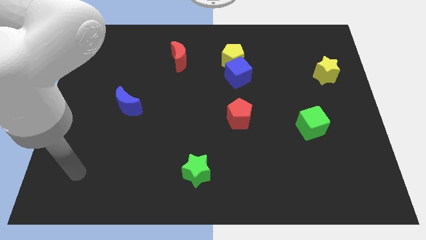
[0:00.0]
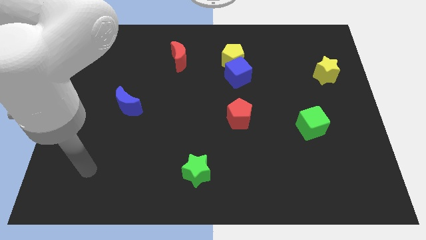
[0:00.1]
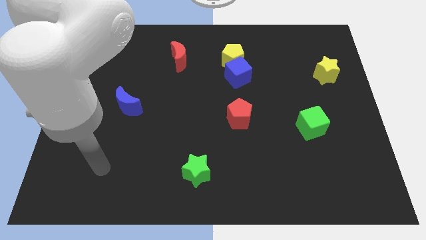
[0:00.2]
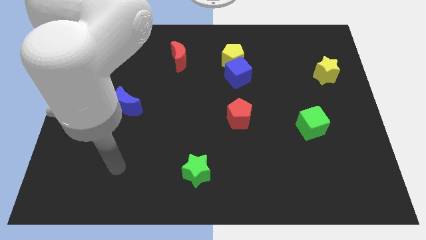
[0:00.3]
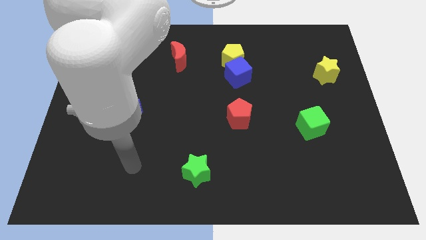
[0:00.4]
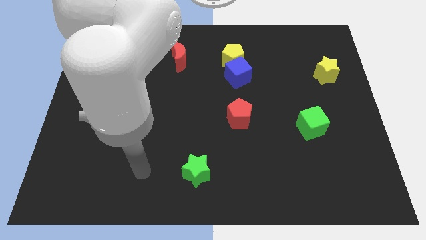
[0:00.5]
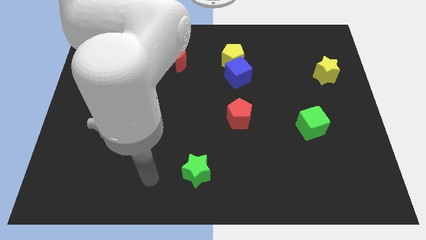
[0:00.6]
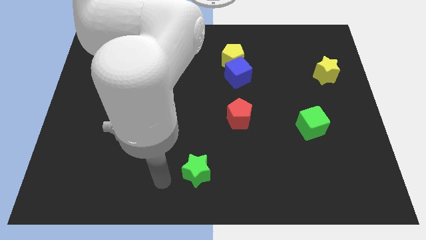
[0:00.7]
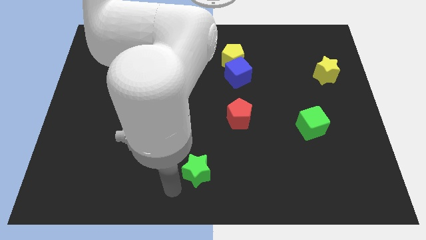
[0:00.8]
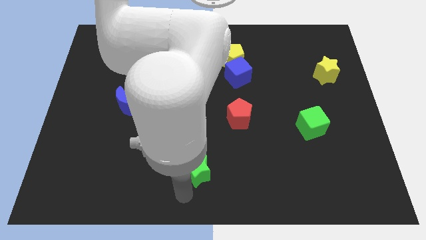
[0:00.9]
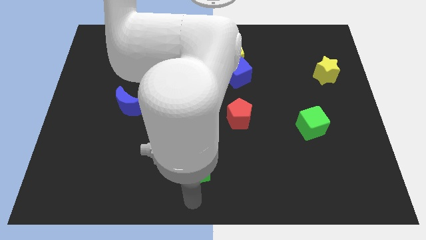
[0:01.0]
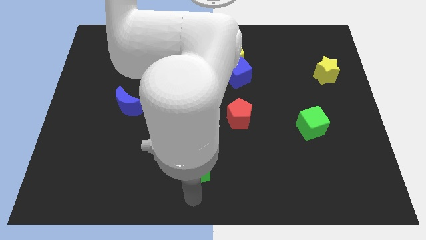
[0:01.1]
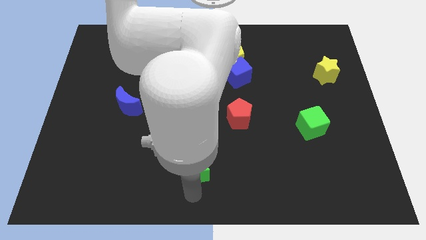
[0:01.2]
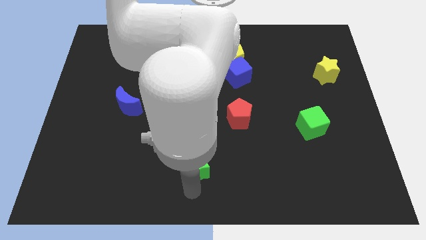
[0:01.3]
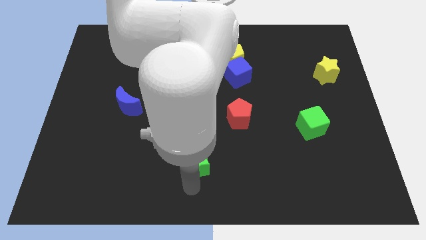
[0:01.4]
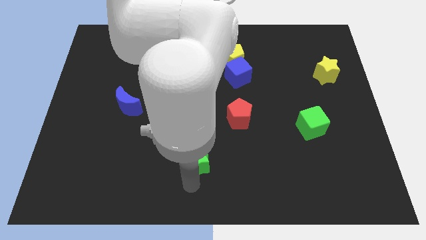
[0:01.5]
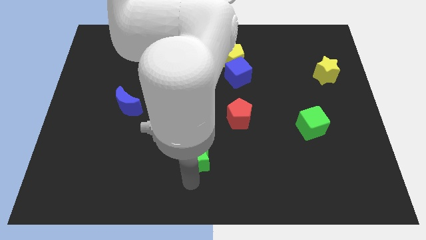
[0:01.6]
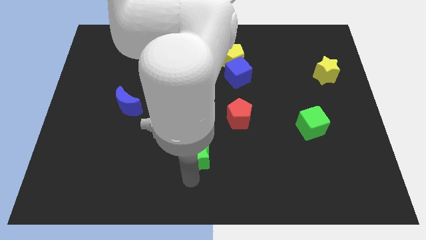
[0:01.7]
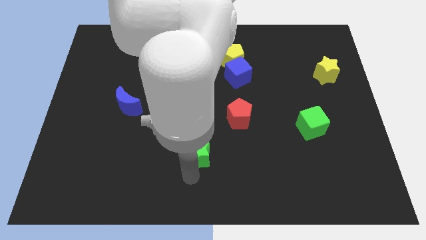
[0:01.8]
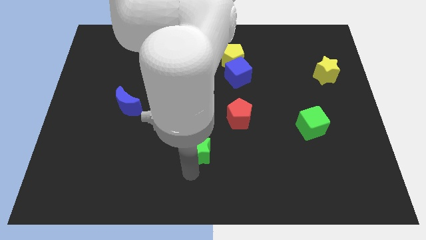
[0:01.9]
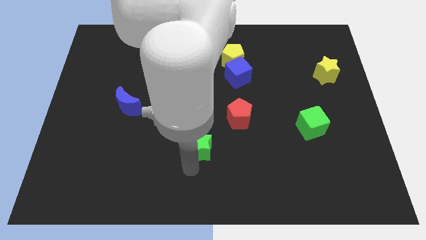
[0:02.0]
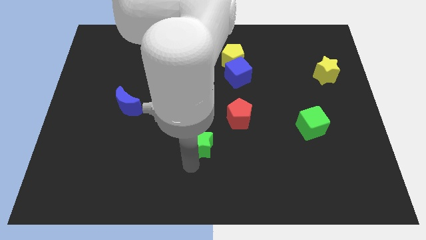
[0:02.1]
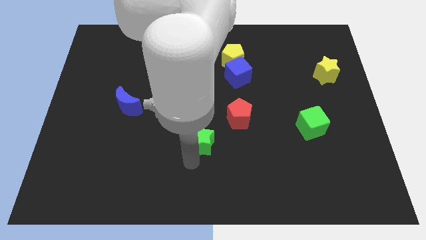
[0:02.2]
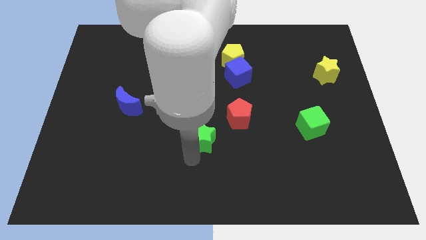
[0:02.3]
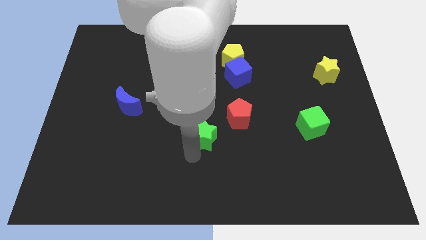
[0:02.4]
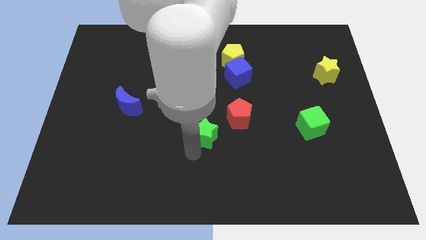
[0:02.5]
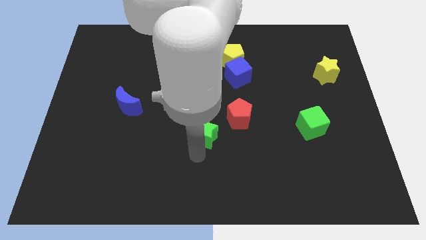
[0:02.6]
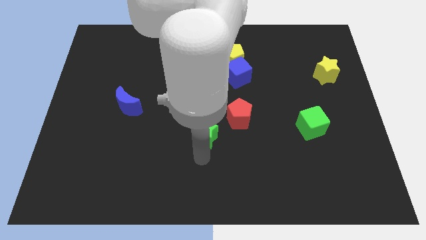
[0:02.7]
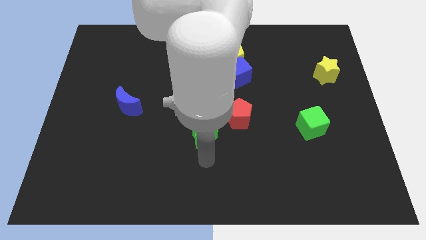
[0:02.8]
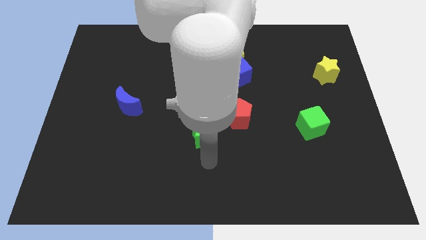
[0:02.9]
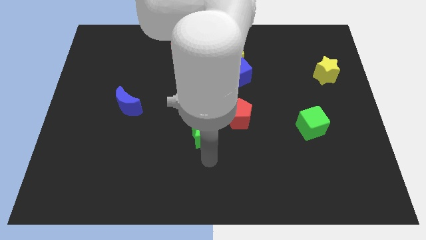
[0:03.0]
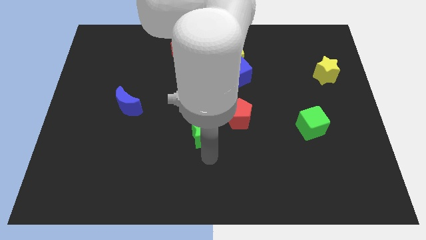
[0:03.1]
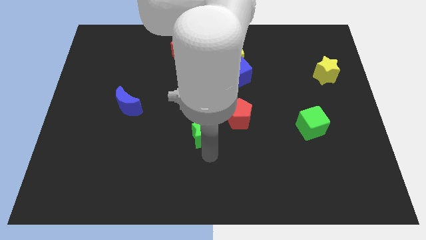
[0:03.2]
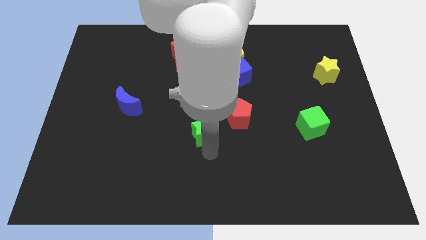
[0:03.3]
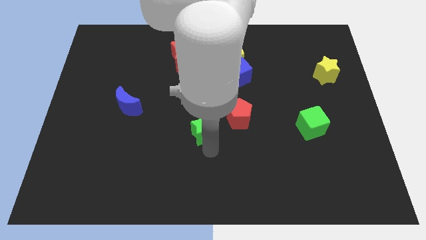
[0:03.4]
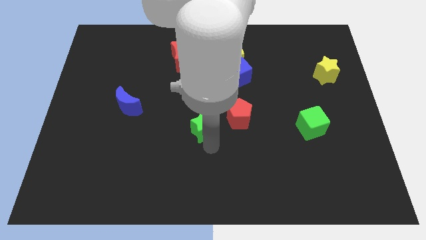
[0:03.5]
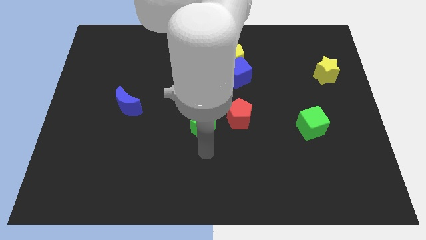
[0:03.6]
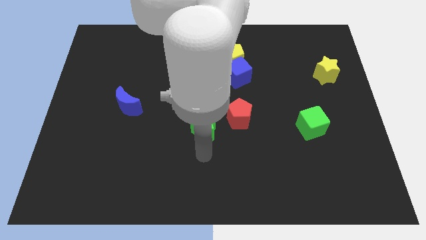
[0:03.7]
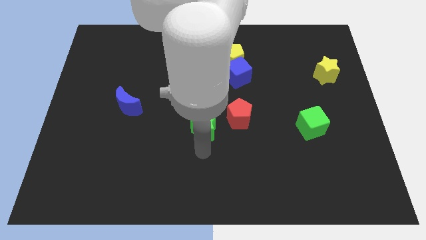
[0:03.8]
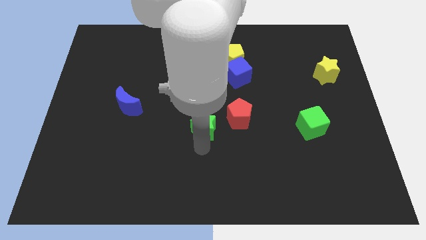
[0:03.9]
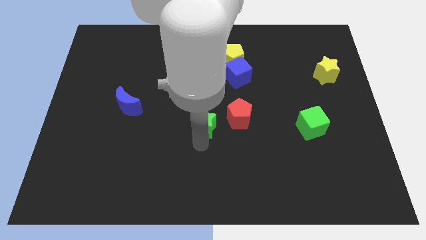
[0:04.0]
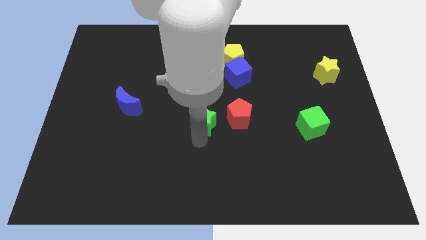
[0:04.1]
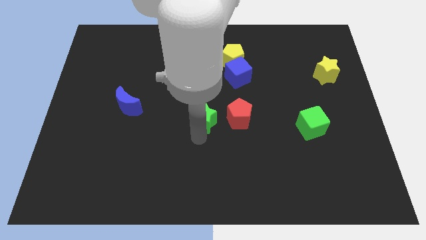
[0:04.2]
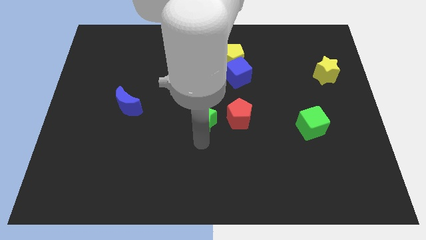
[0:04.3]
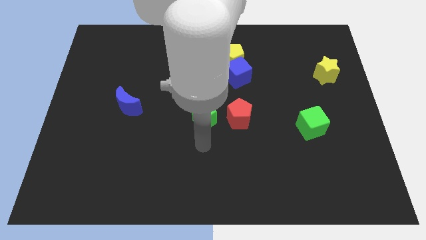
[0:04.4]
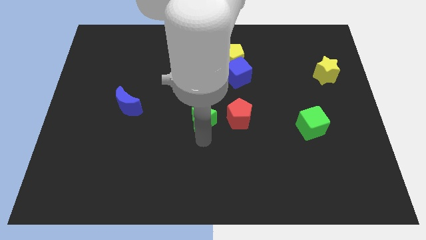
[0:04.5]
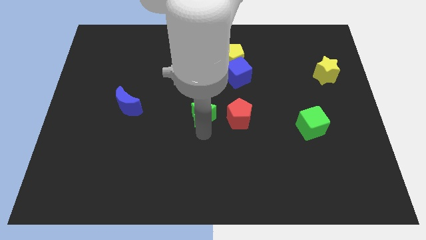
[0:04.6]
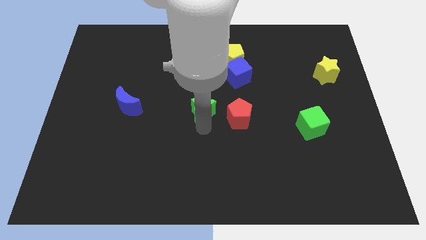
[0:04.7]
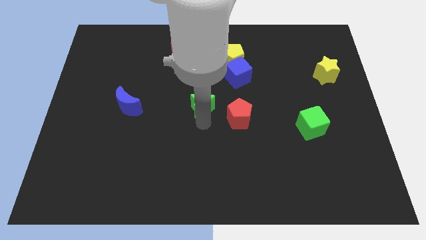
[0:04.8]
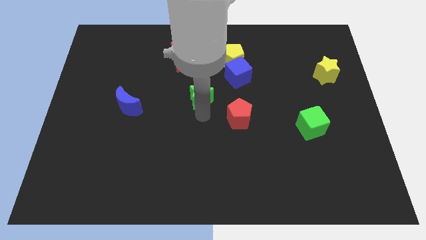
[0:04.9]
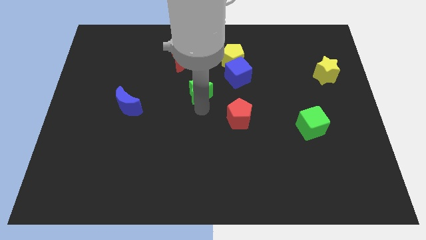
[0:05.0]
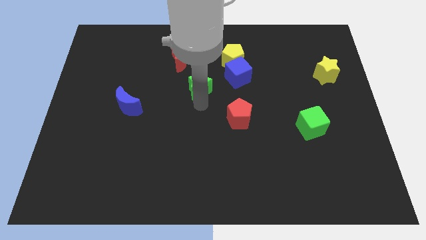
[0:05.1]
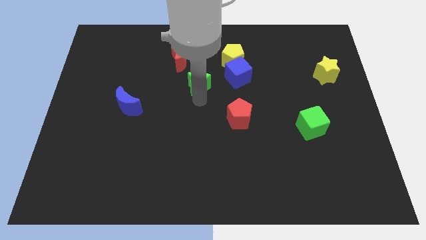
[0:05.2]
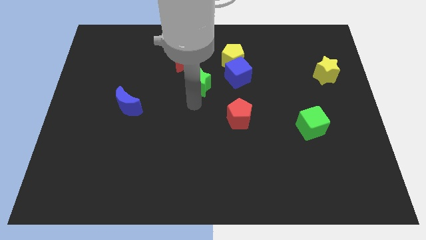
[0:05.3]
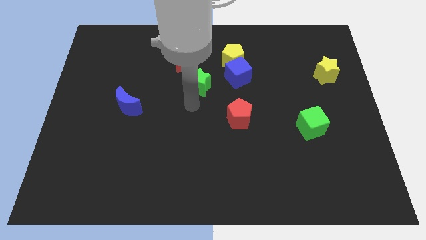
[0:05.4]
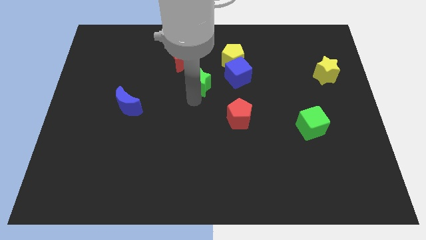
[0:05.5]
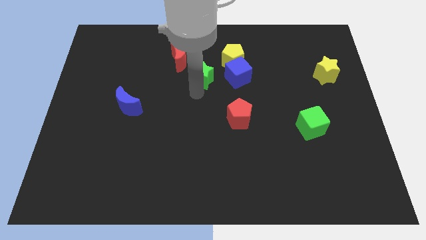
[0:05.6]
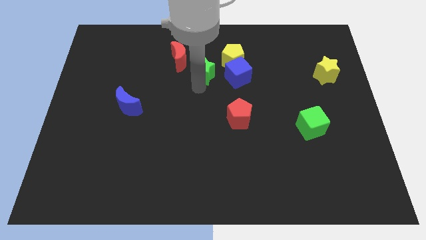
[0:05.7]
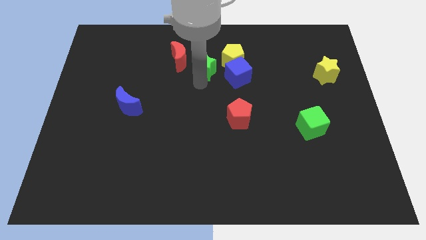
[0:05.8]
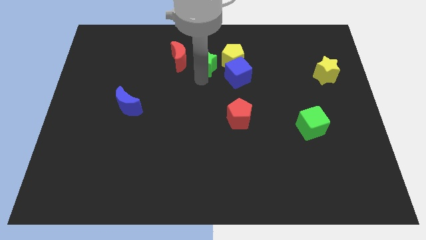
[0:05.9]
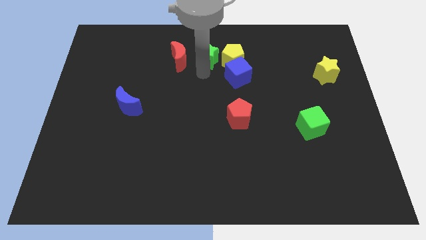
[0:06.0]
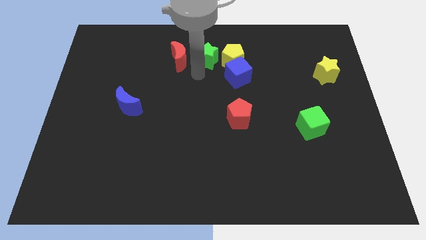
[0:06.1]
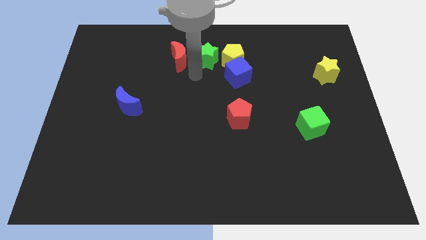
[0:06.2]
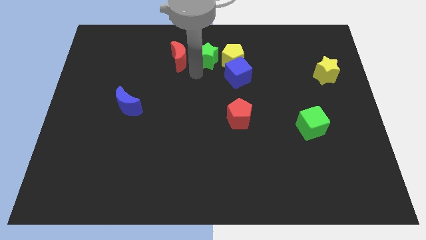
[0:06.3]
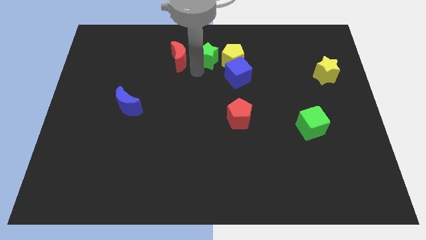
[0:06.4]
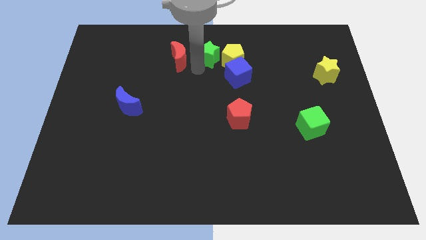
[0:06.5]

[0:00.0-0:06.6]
slide the green star to the top
